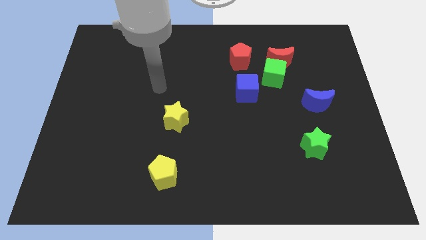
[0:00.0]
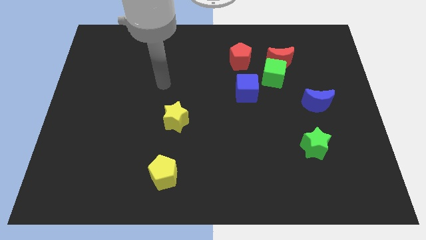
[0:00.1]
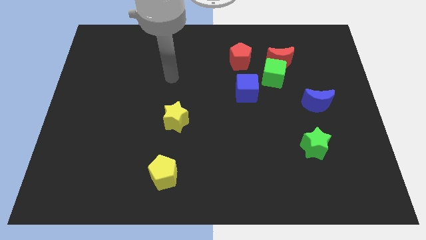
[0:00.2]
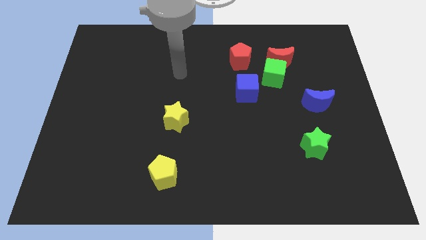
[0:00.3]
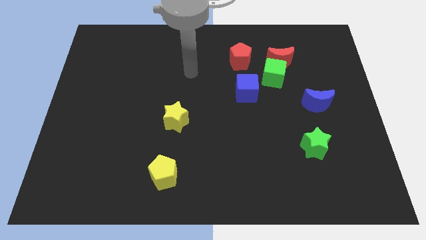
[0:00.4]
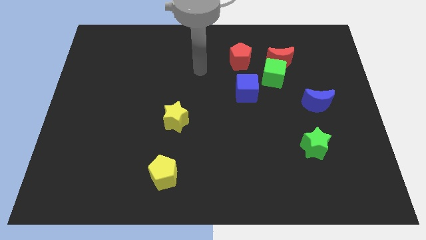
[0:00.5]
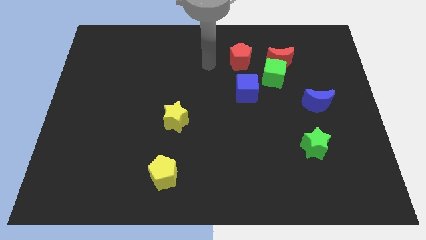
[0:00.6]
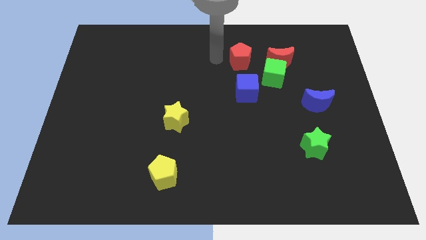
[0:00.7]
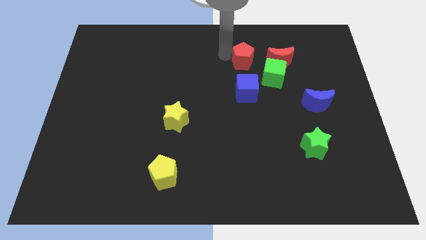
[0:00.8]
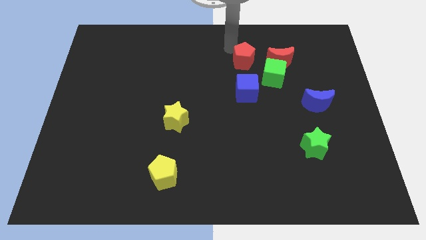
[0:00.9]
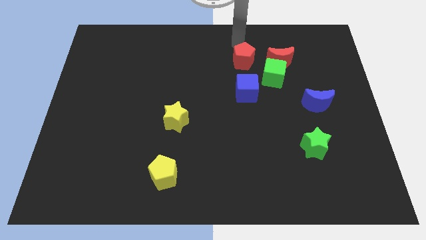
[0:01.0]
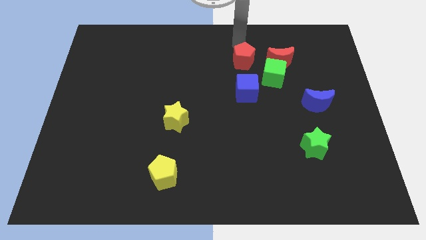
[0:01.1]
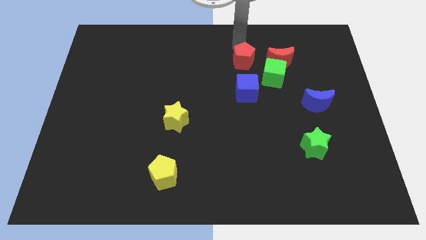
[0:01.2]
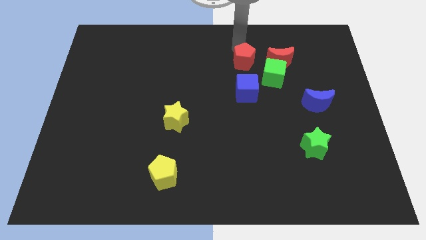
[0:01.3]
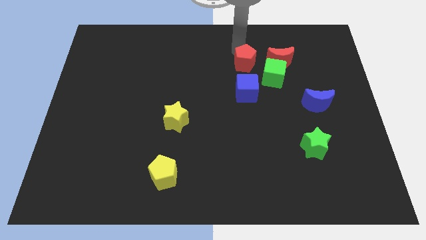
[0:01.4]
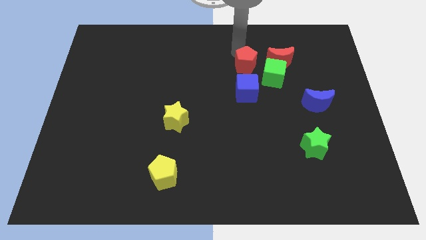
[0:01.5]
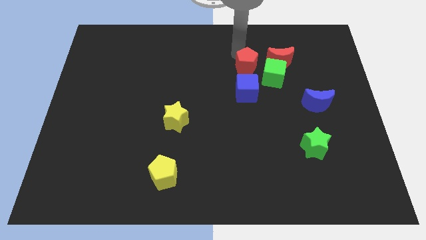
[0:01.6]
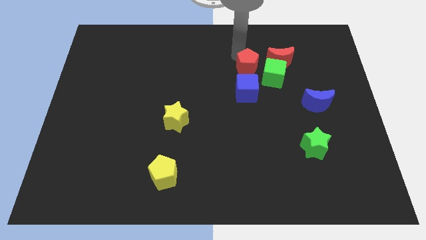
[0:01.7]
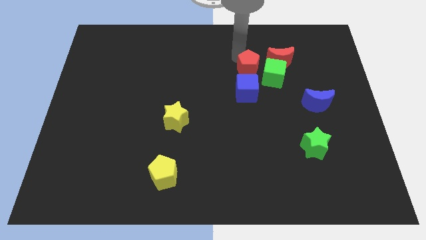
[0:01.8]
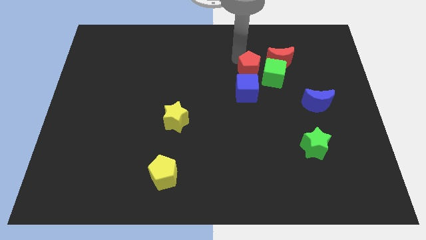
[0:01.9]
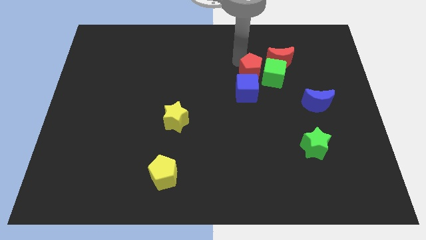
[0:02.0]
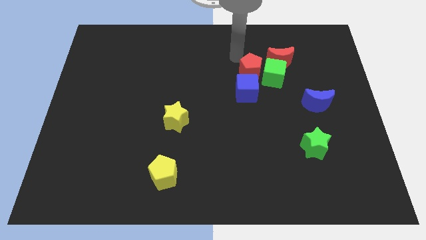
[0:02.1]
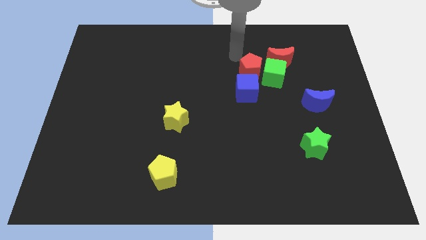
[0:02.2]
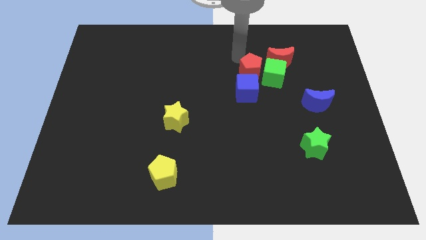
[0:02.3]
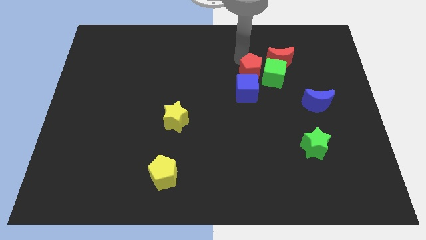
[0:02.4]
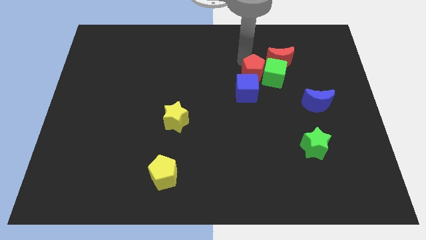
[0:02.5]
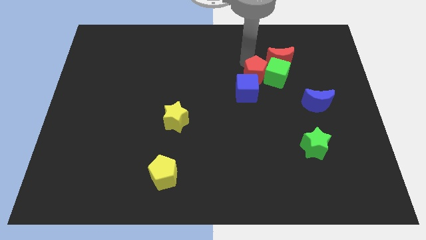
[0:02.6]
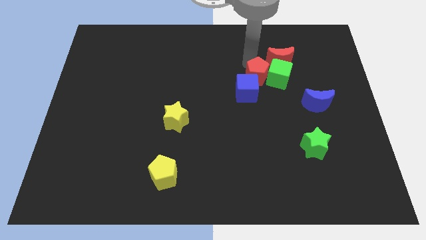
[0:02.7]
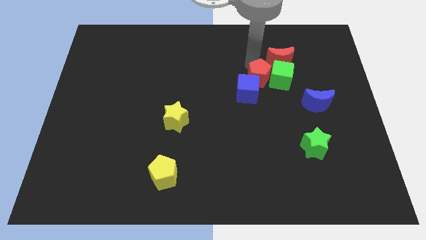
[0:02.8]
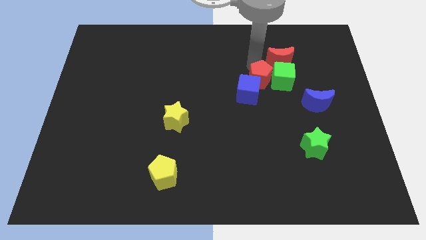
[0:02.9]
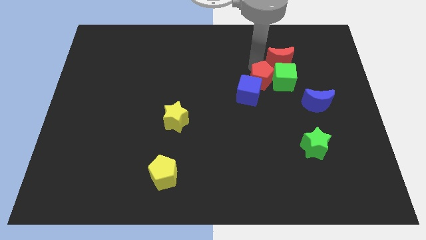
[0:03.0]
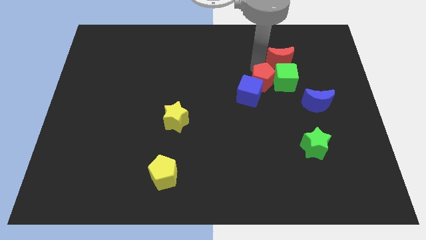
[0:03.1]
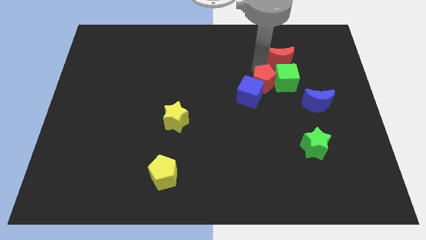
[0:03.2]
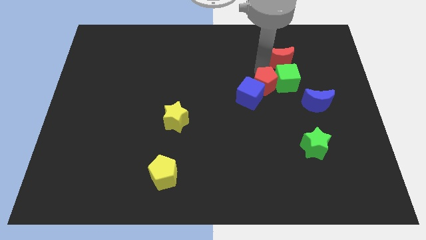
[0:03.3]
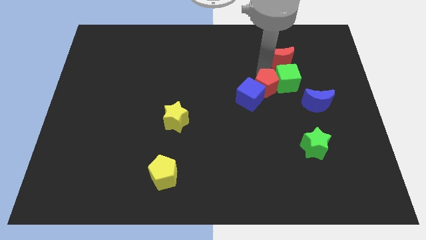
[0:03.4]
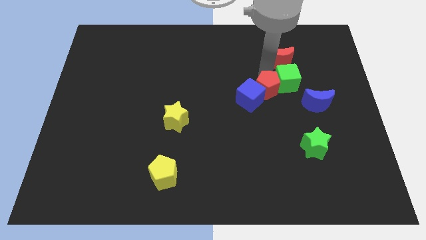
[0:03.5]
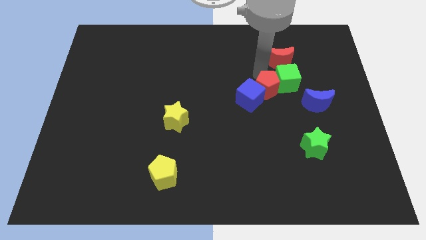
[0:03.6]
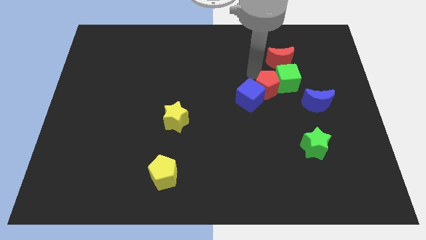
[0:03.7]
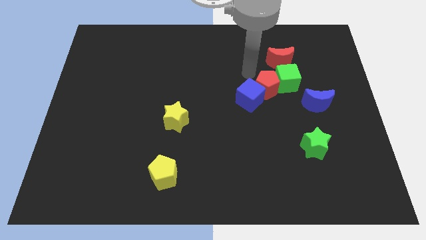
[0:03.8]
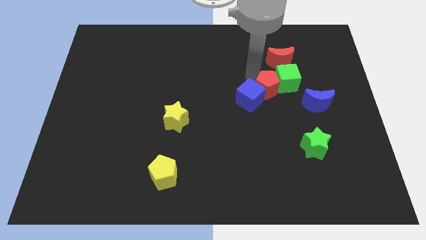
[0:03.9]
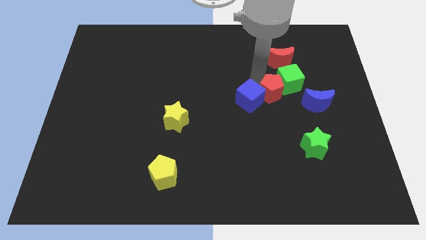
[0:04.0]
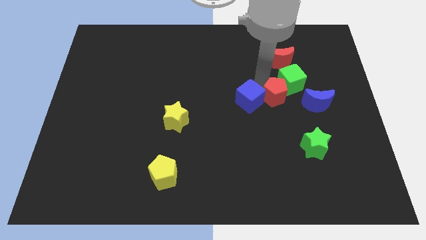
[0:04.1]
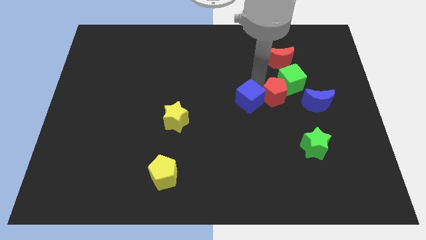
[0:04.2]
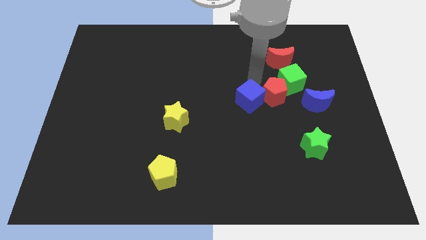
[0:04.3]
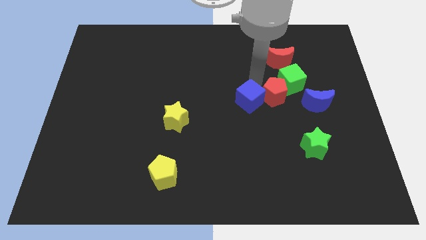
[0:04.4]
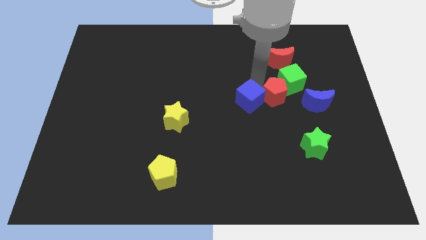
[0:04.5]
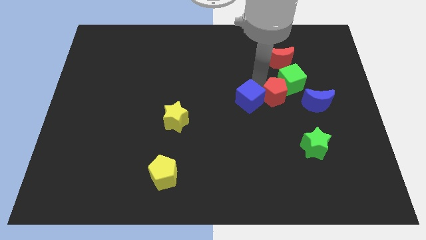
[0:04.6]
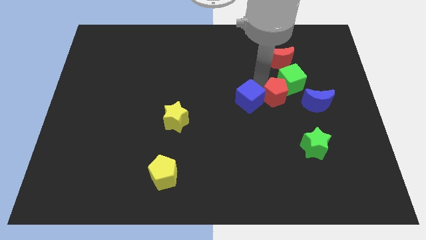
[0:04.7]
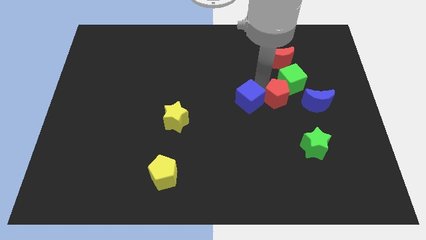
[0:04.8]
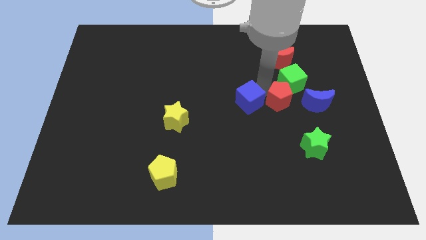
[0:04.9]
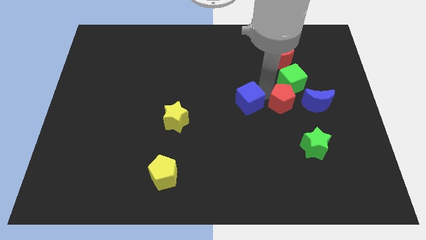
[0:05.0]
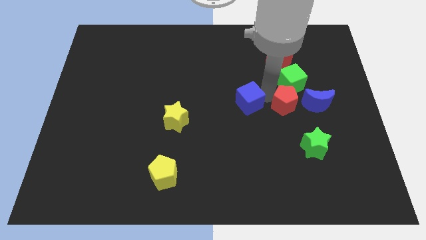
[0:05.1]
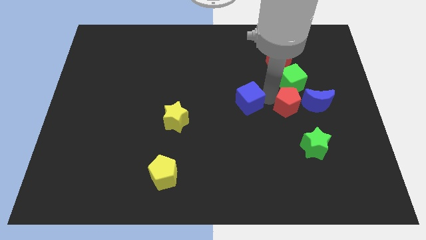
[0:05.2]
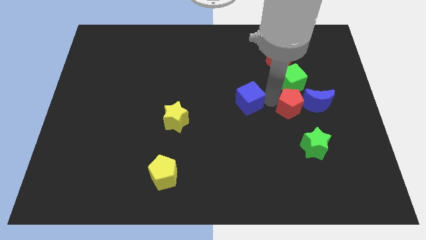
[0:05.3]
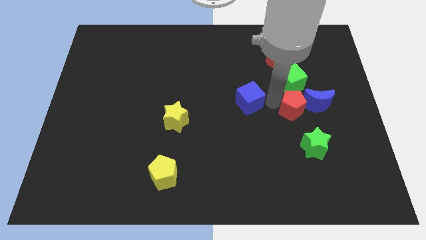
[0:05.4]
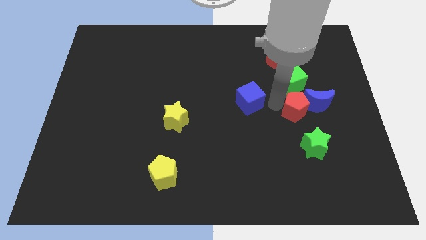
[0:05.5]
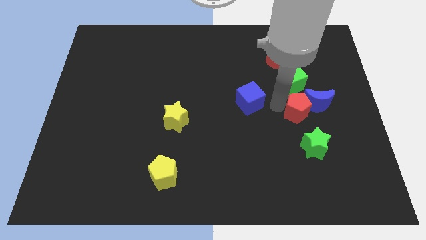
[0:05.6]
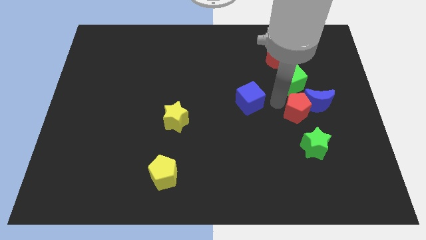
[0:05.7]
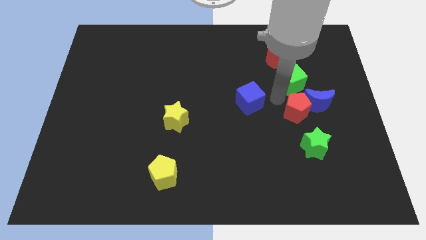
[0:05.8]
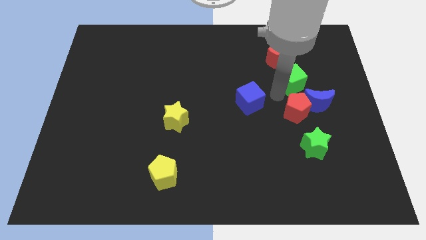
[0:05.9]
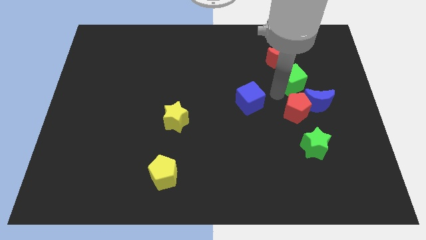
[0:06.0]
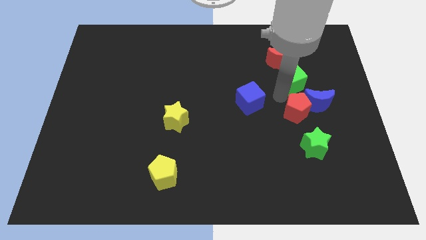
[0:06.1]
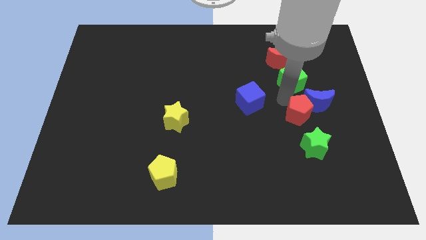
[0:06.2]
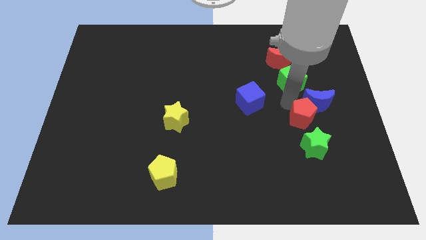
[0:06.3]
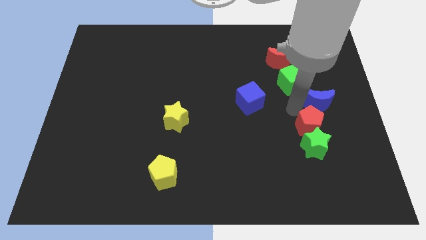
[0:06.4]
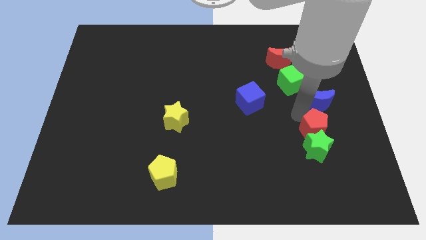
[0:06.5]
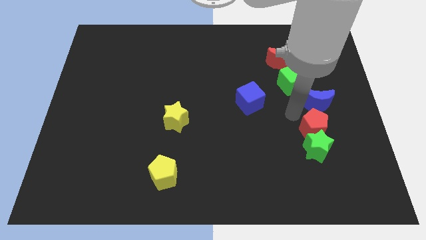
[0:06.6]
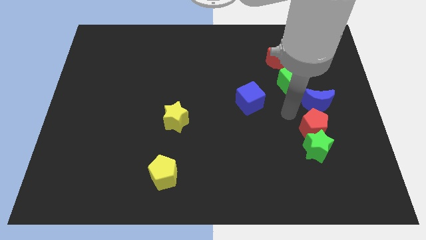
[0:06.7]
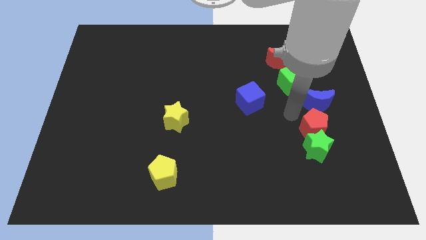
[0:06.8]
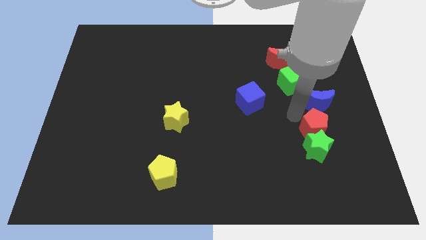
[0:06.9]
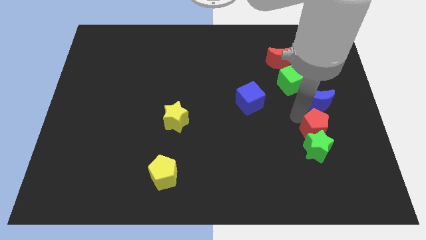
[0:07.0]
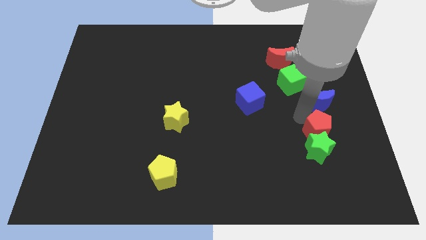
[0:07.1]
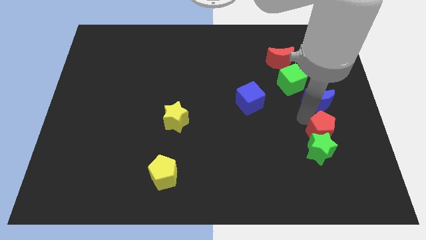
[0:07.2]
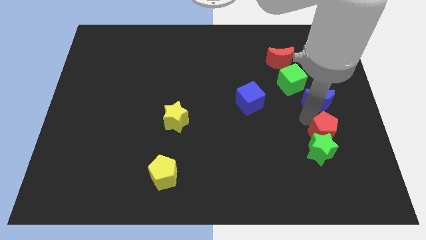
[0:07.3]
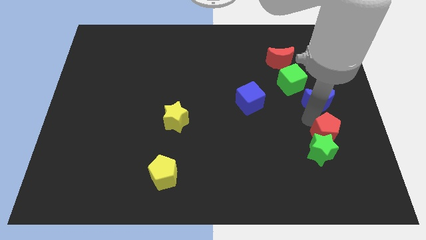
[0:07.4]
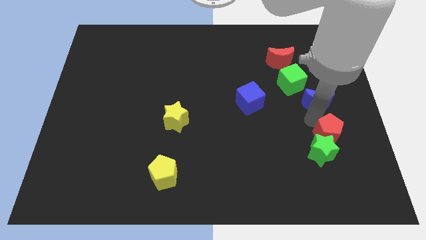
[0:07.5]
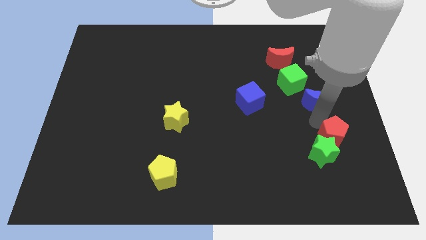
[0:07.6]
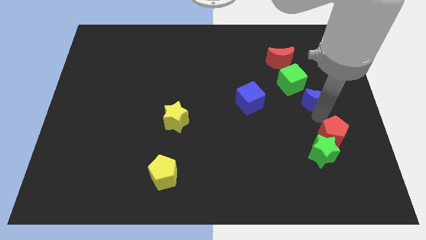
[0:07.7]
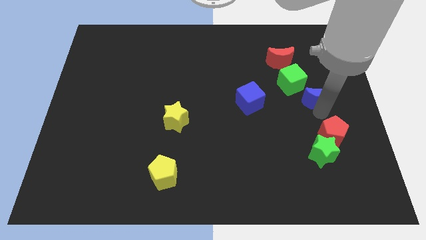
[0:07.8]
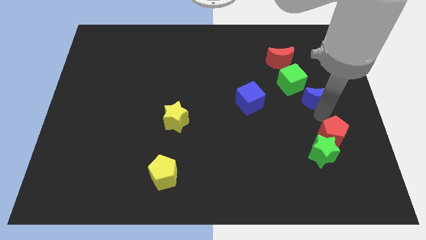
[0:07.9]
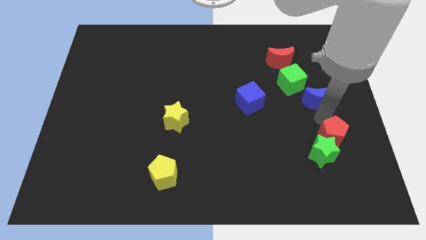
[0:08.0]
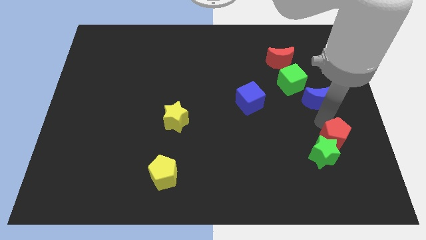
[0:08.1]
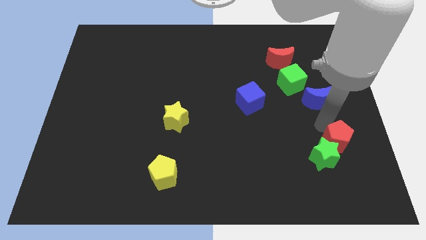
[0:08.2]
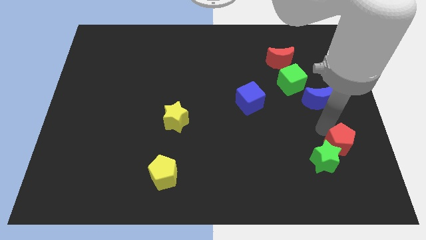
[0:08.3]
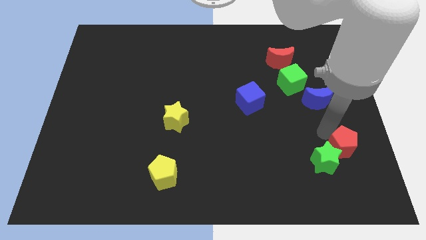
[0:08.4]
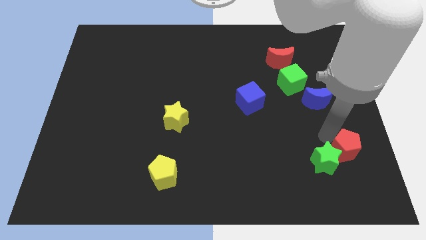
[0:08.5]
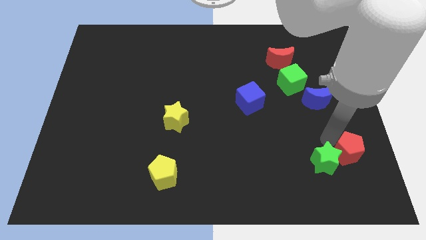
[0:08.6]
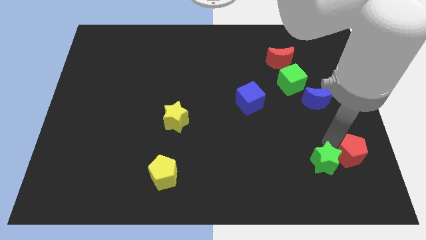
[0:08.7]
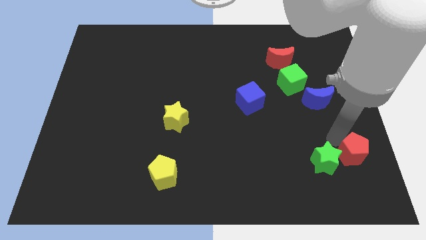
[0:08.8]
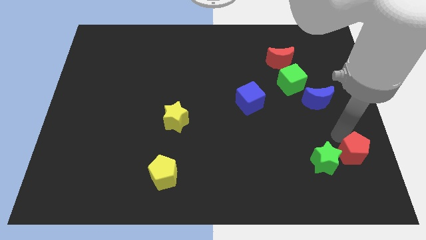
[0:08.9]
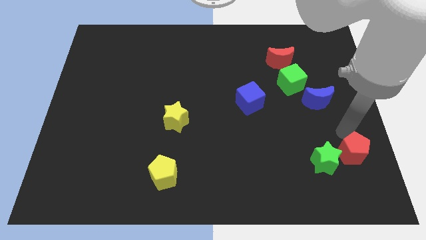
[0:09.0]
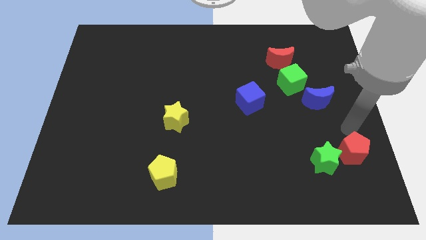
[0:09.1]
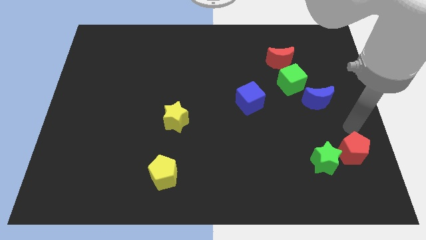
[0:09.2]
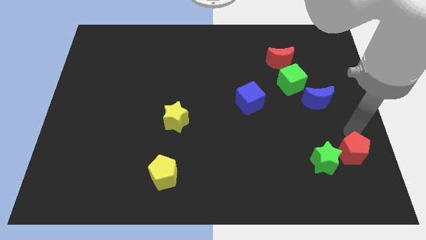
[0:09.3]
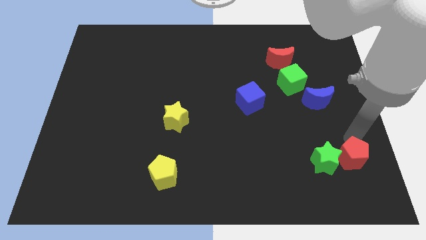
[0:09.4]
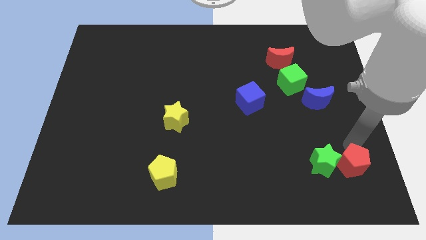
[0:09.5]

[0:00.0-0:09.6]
move the red pentagon diagonally down and to the right of the green star
